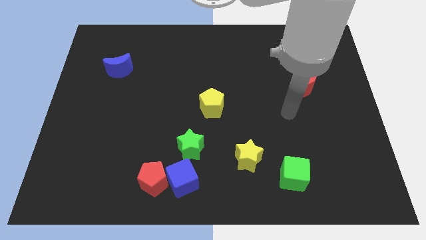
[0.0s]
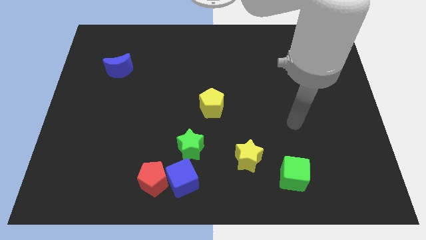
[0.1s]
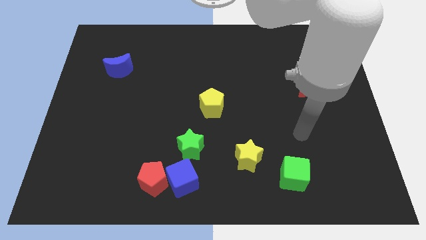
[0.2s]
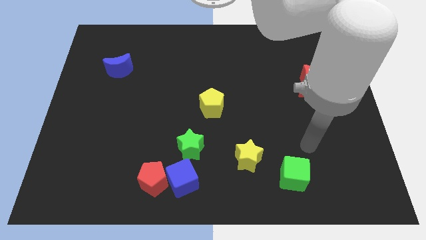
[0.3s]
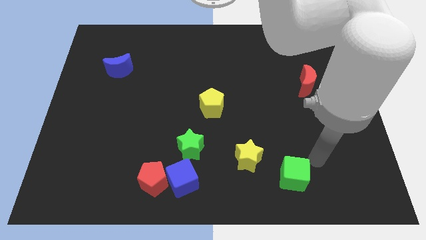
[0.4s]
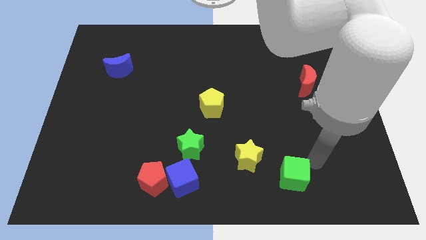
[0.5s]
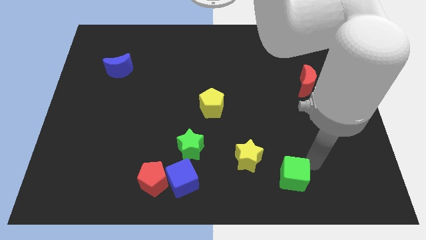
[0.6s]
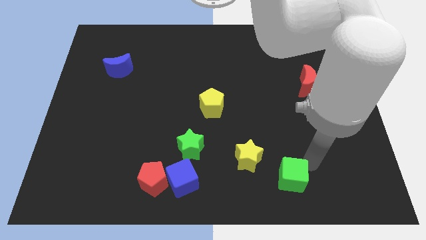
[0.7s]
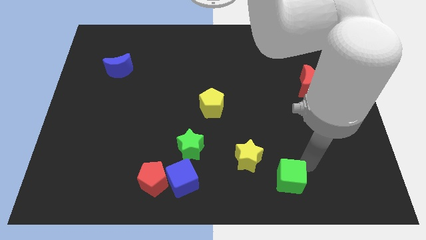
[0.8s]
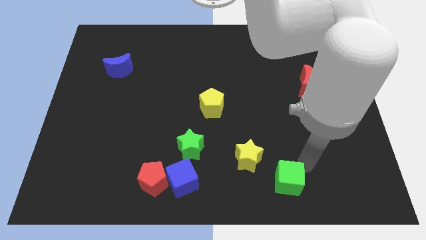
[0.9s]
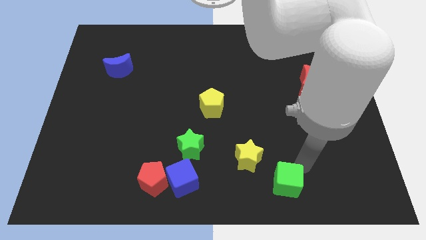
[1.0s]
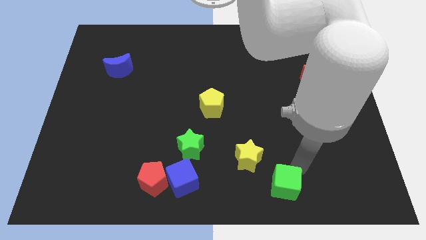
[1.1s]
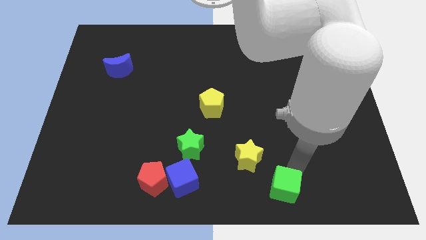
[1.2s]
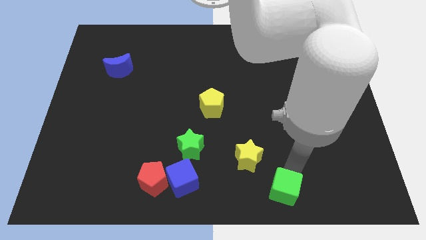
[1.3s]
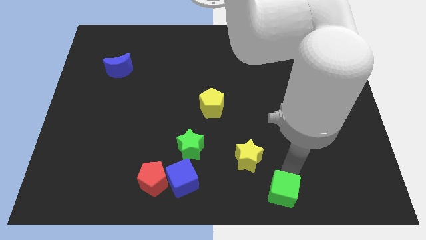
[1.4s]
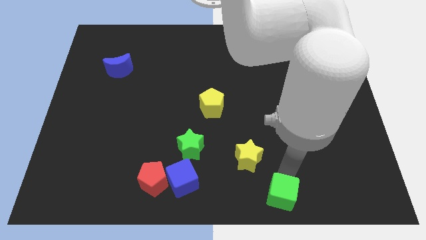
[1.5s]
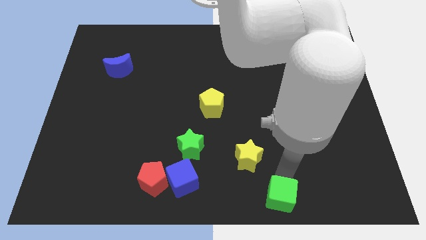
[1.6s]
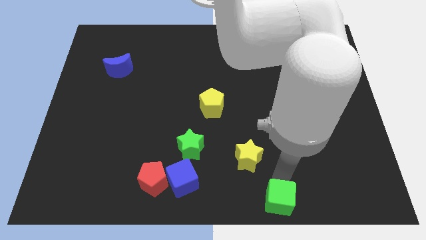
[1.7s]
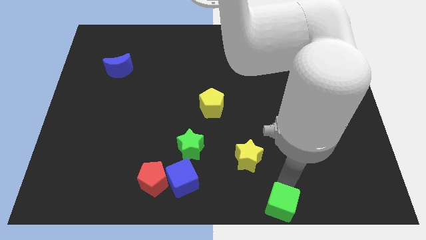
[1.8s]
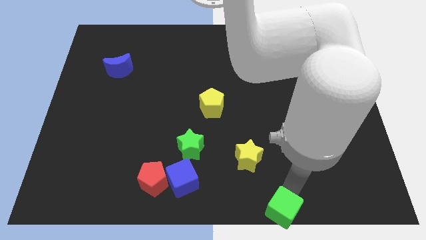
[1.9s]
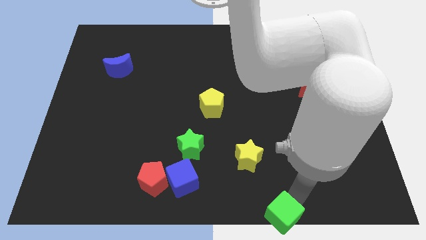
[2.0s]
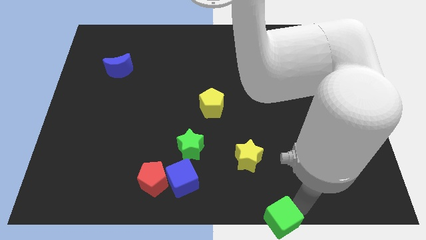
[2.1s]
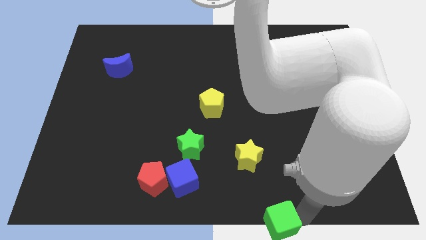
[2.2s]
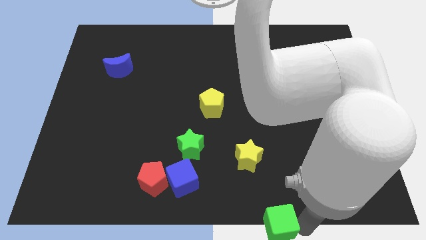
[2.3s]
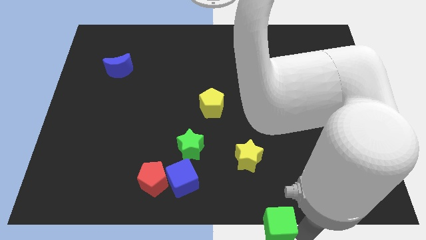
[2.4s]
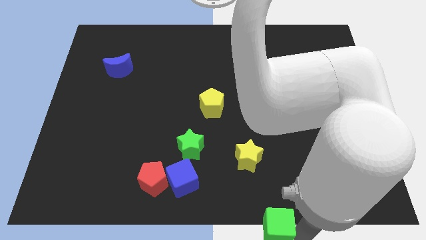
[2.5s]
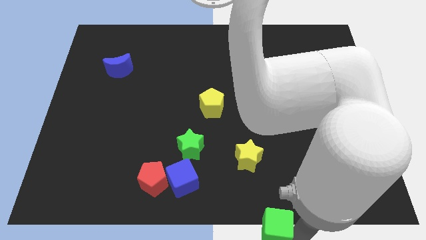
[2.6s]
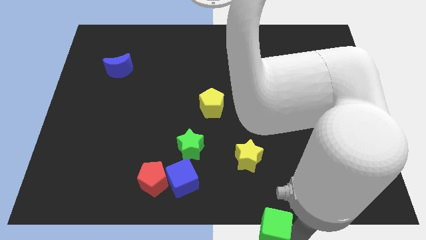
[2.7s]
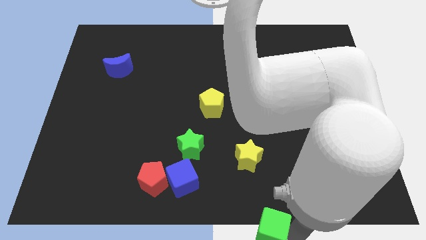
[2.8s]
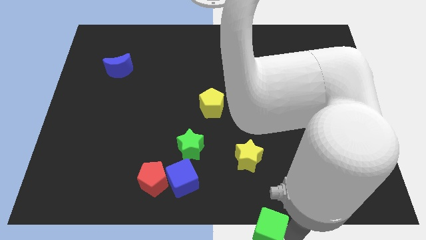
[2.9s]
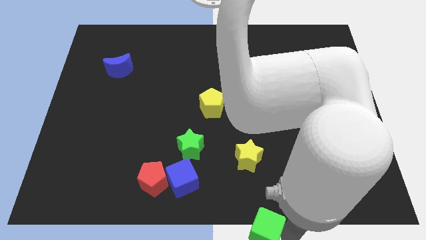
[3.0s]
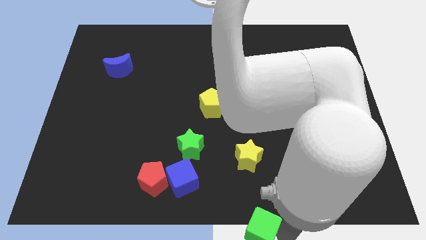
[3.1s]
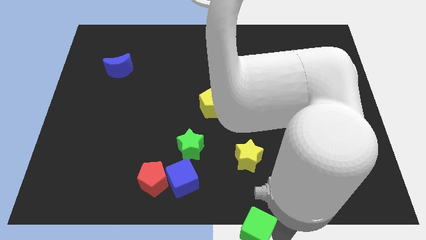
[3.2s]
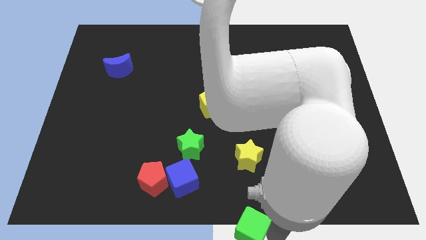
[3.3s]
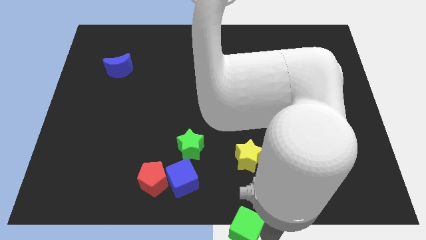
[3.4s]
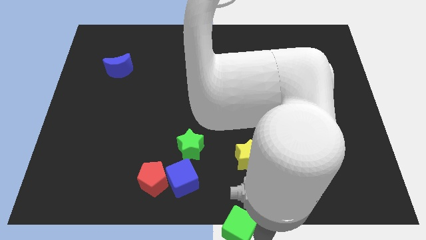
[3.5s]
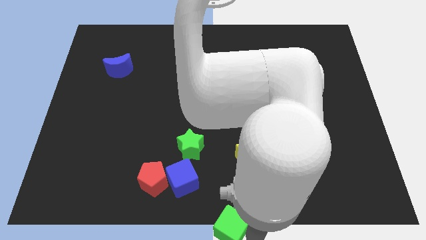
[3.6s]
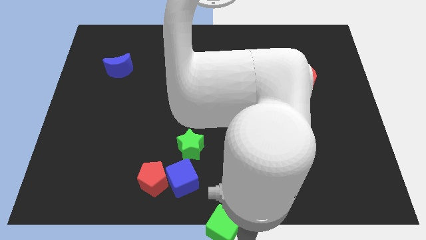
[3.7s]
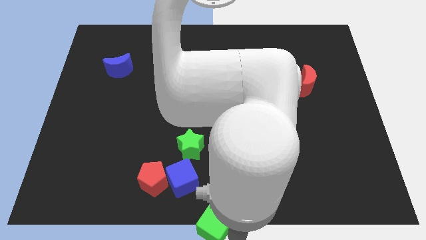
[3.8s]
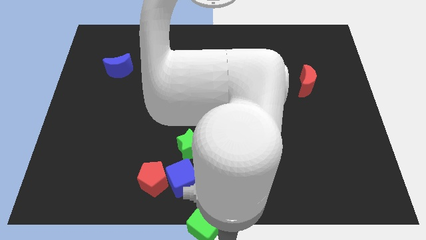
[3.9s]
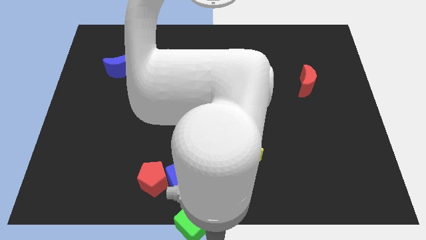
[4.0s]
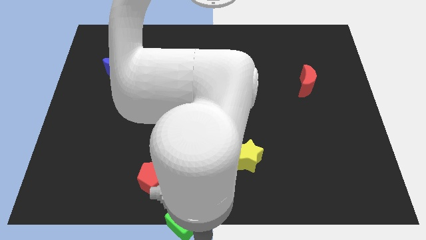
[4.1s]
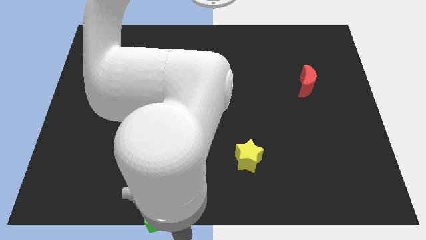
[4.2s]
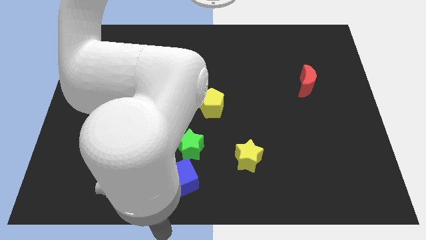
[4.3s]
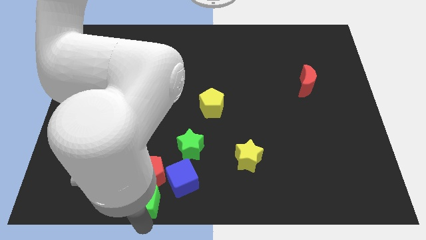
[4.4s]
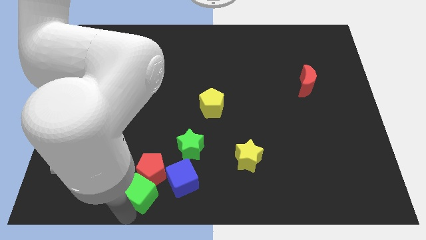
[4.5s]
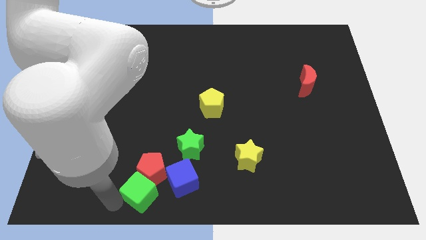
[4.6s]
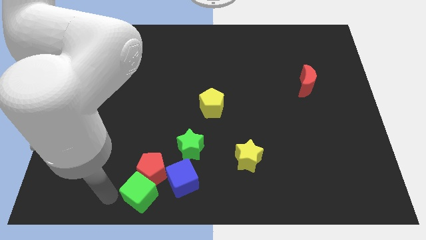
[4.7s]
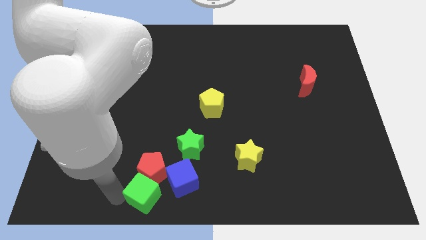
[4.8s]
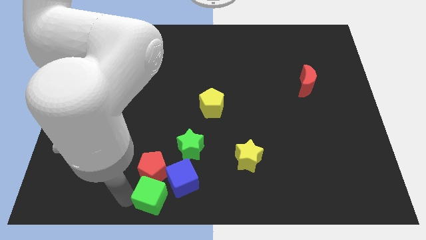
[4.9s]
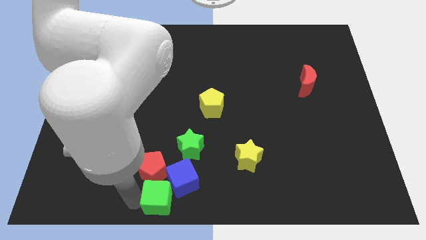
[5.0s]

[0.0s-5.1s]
push the green cube close to the blue cube

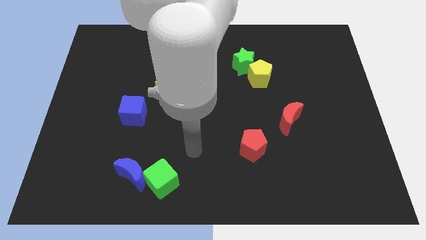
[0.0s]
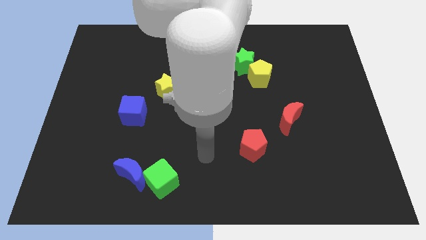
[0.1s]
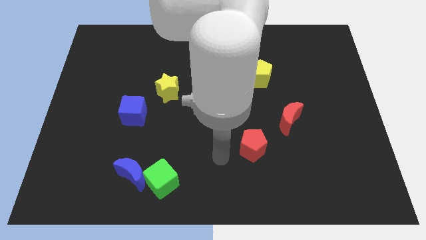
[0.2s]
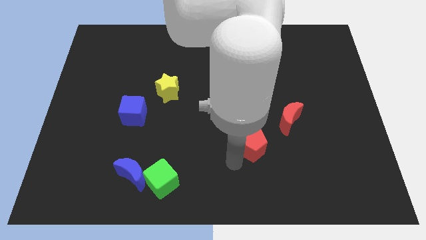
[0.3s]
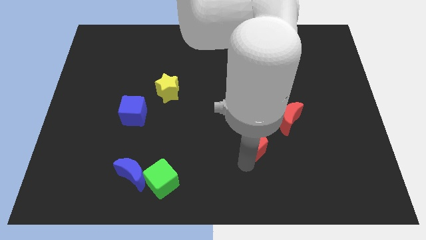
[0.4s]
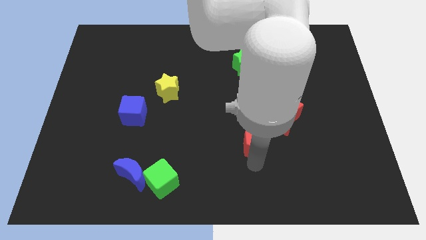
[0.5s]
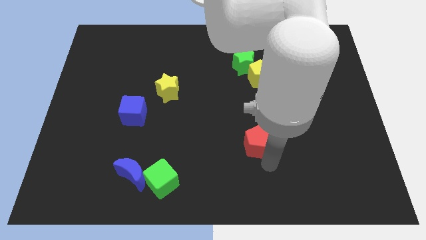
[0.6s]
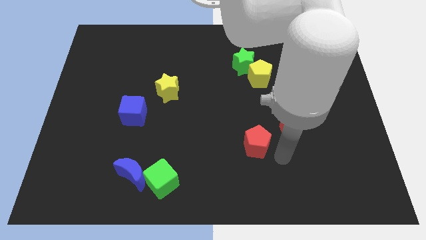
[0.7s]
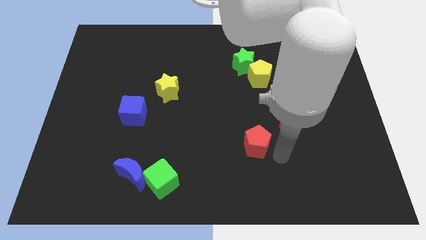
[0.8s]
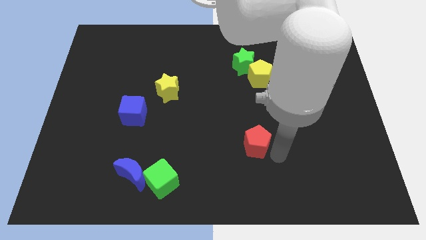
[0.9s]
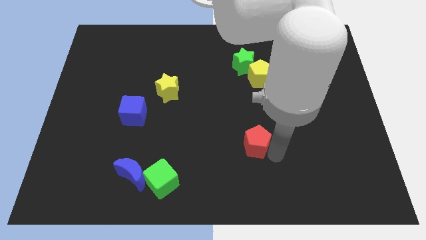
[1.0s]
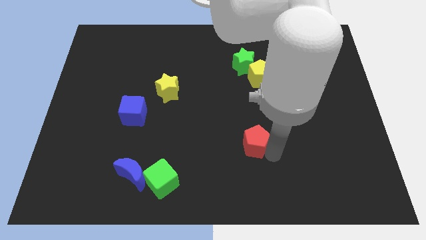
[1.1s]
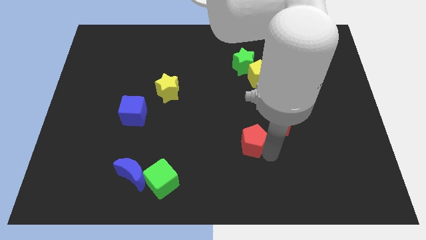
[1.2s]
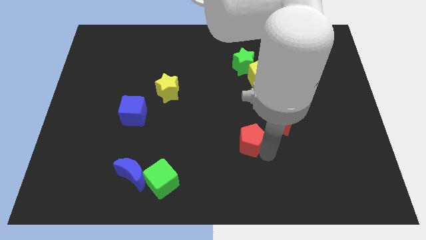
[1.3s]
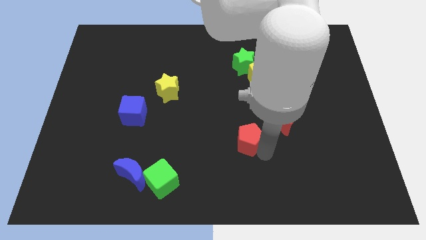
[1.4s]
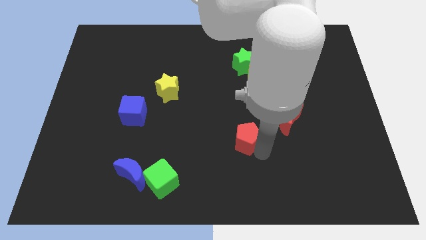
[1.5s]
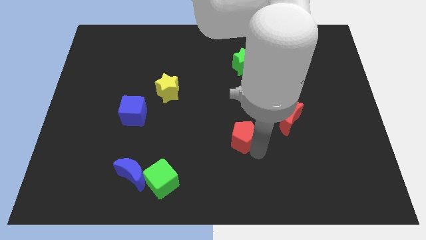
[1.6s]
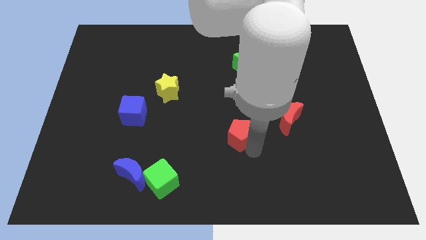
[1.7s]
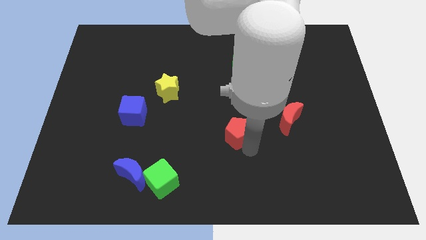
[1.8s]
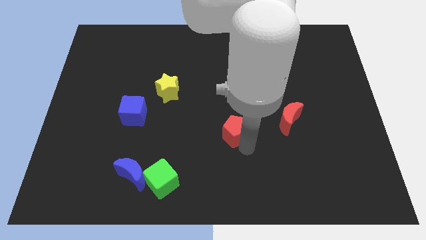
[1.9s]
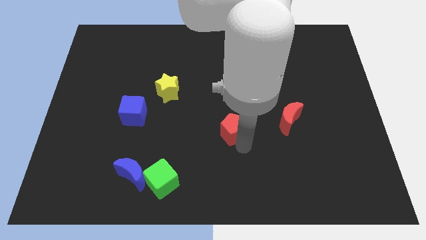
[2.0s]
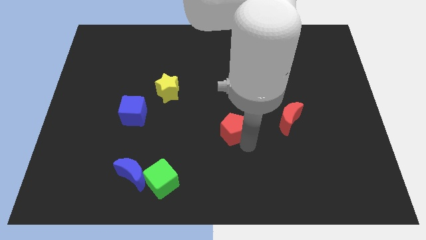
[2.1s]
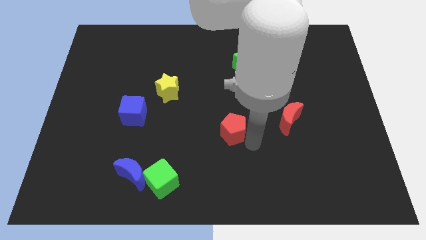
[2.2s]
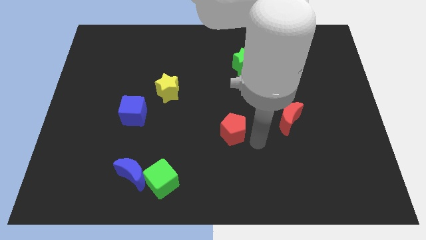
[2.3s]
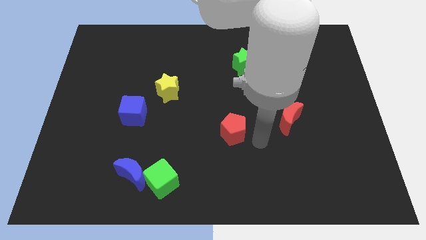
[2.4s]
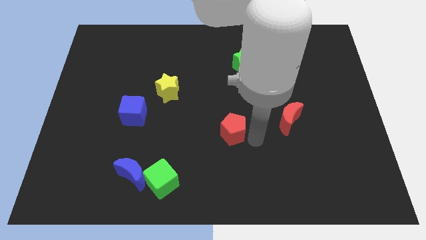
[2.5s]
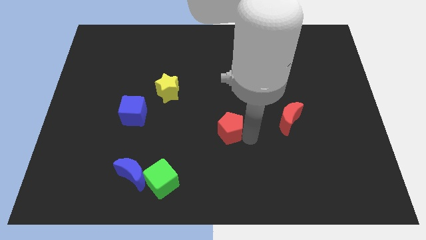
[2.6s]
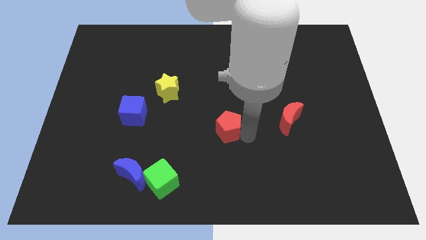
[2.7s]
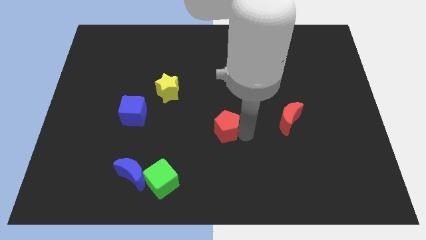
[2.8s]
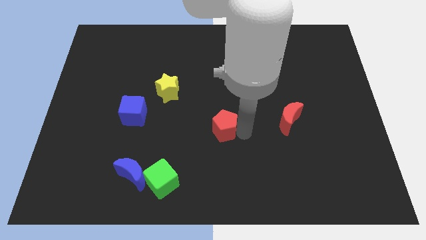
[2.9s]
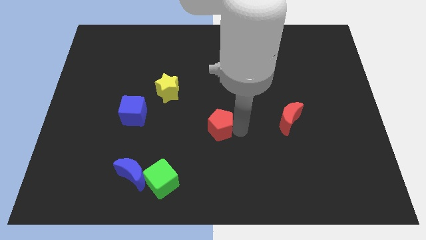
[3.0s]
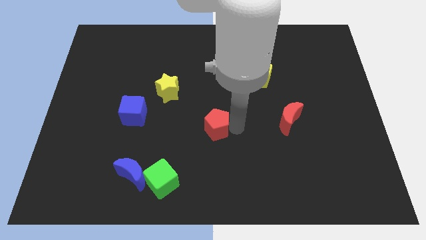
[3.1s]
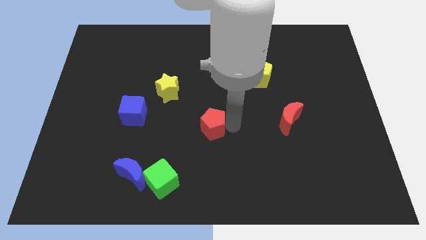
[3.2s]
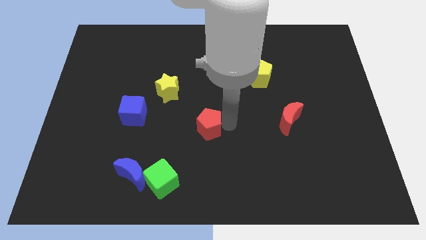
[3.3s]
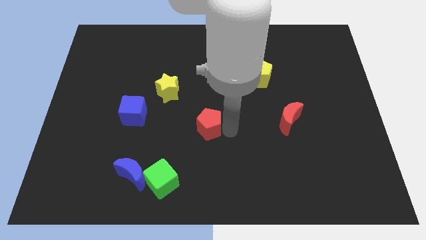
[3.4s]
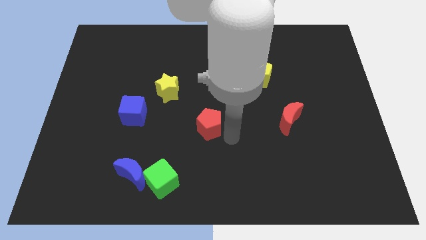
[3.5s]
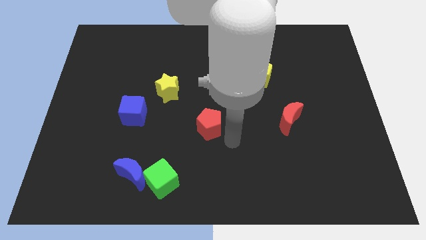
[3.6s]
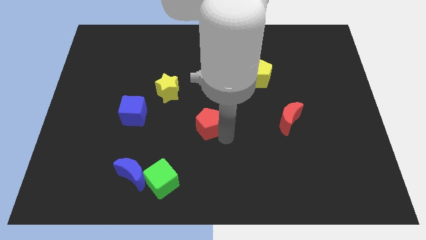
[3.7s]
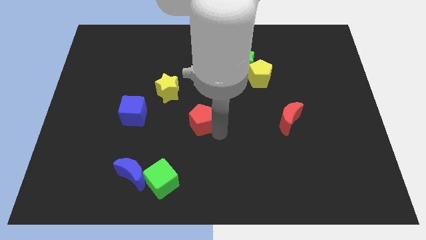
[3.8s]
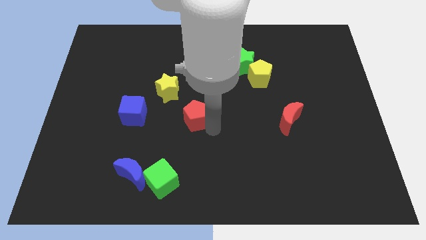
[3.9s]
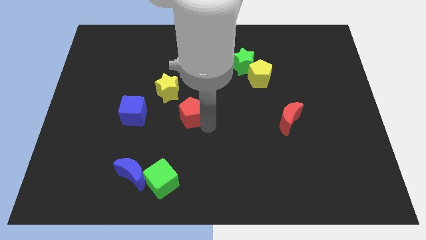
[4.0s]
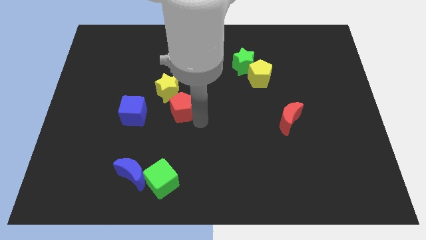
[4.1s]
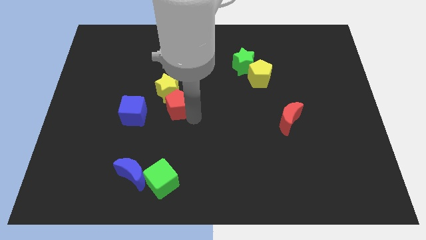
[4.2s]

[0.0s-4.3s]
put the red pentagon towards the yellow star
